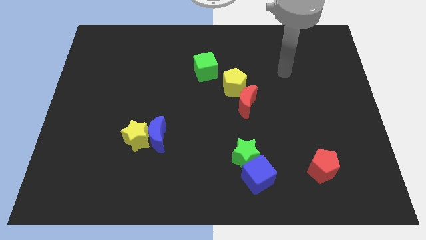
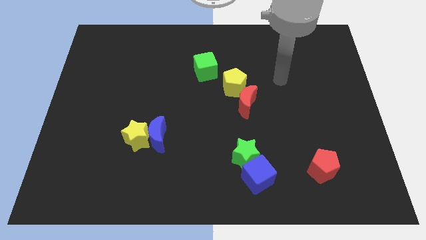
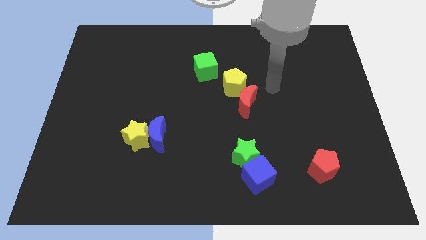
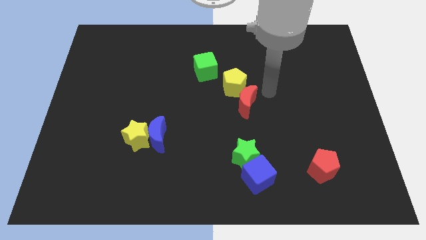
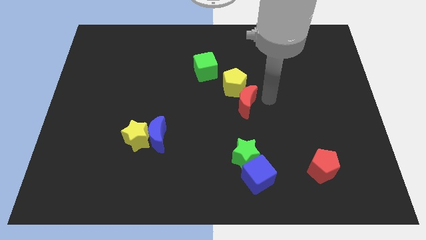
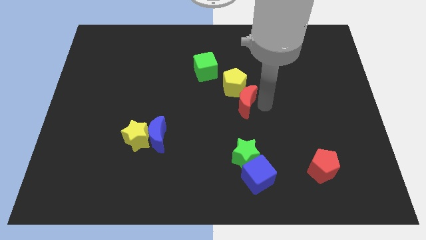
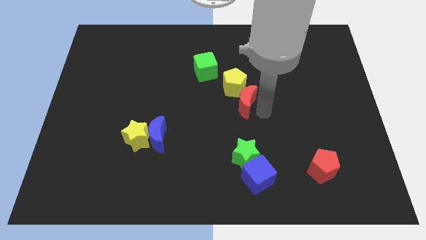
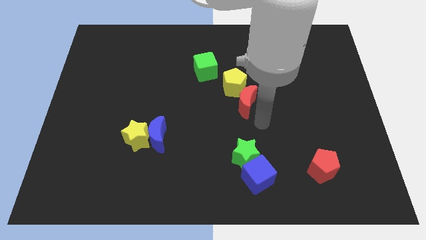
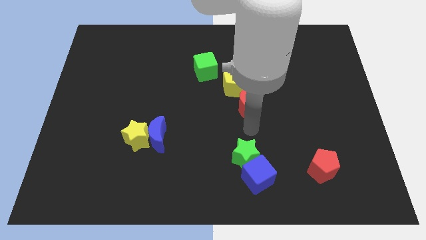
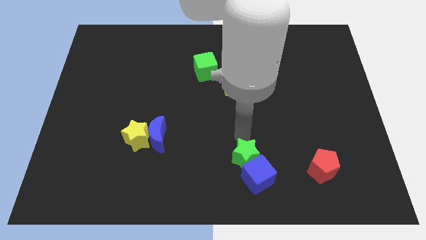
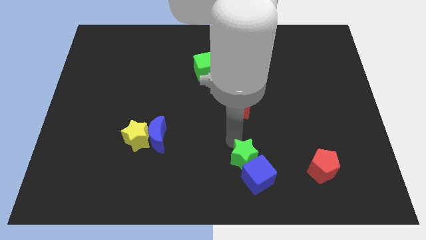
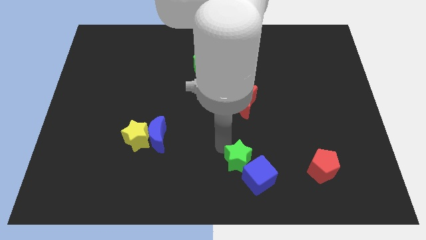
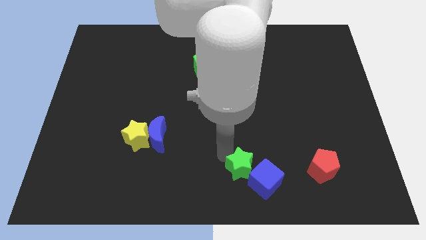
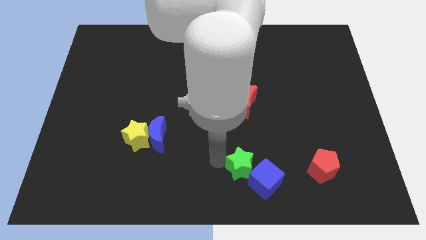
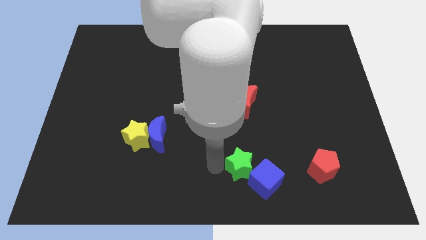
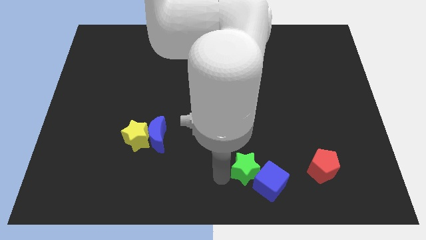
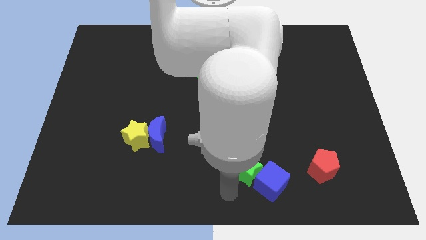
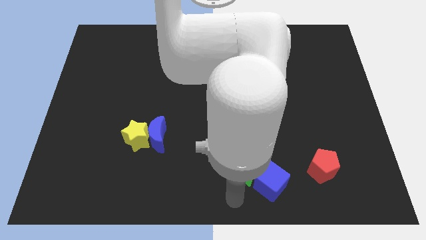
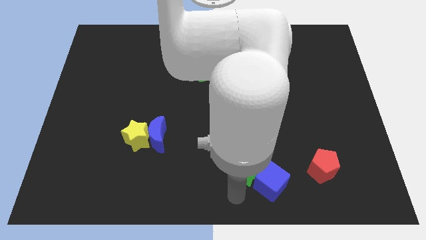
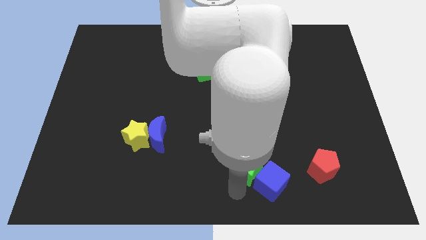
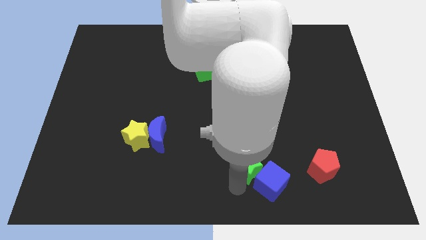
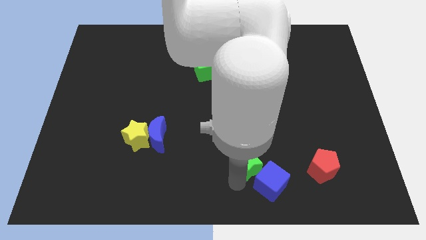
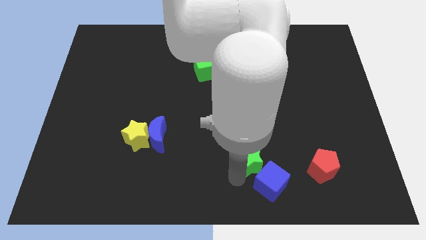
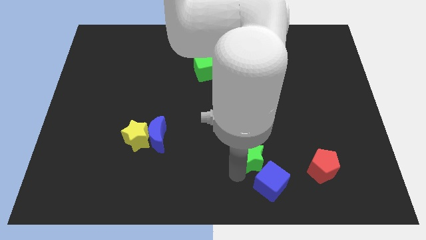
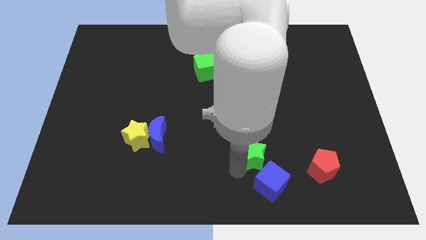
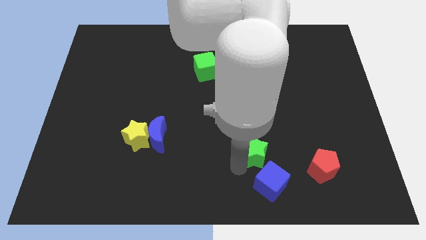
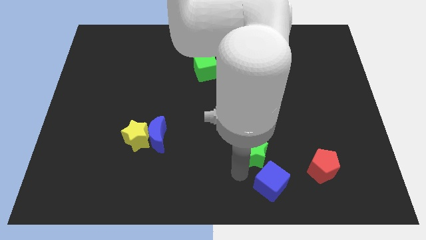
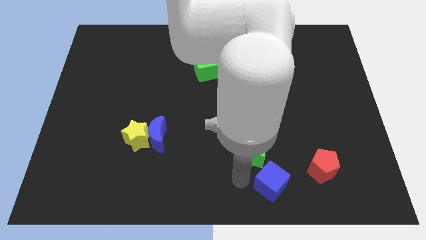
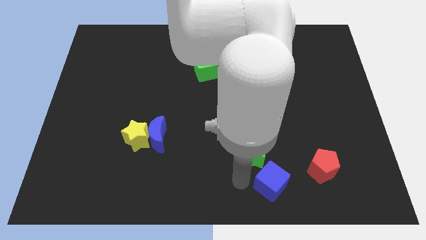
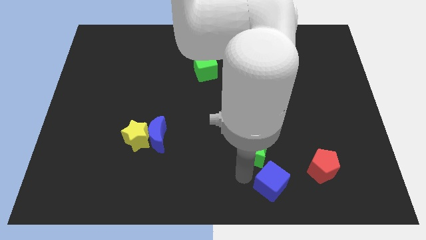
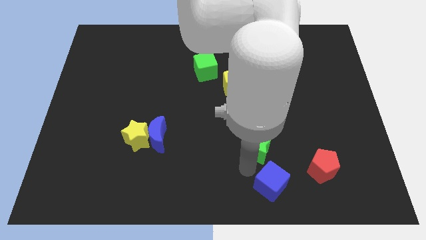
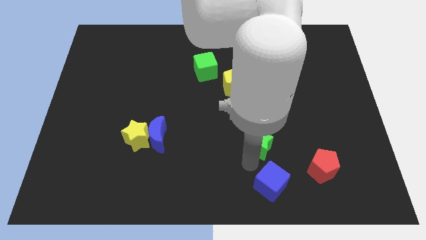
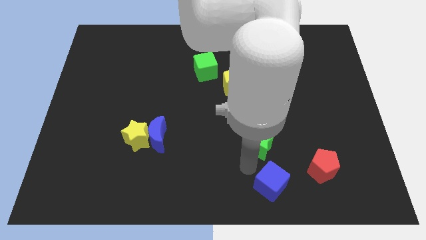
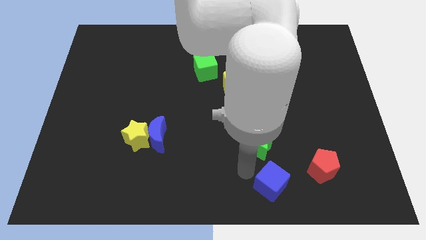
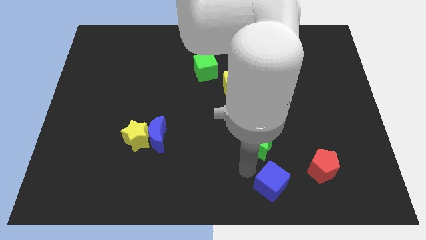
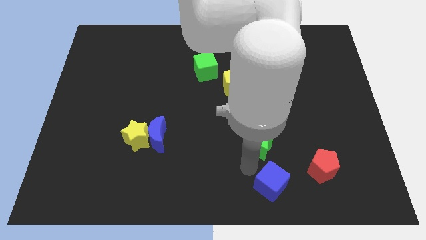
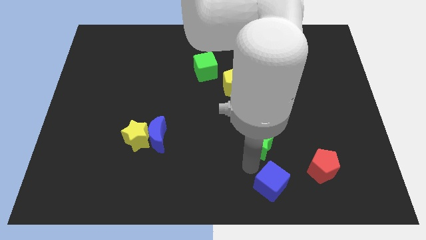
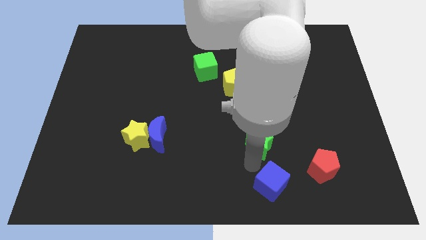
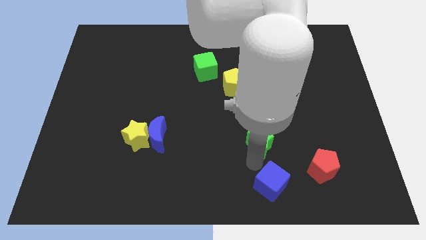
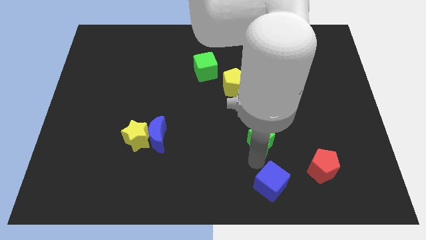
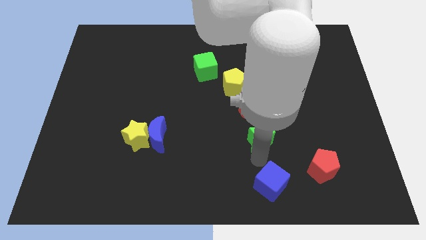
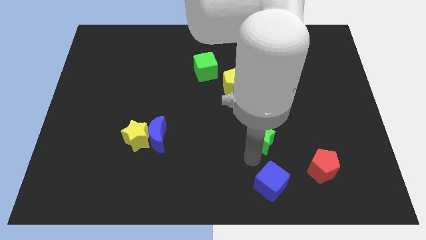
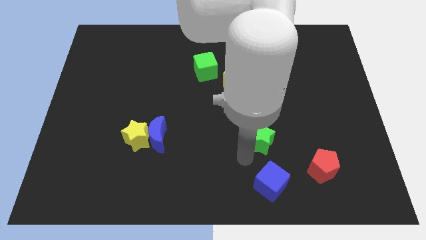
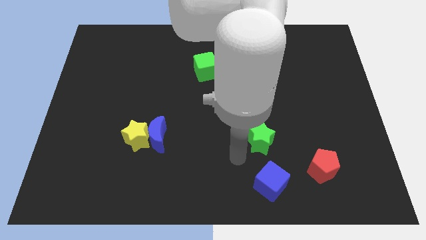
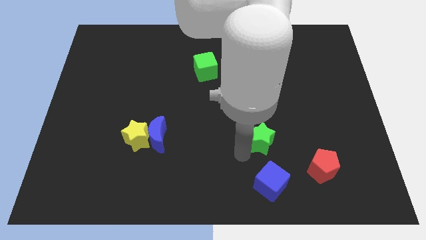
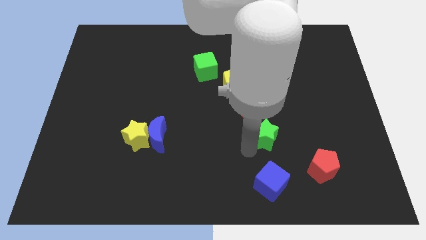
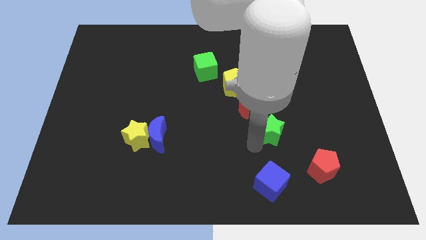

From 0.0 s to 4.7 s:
slide the green star a little upwards and then to the right

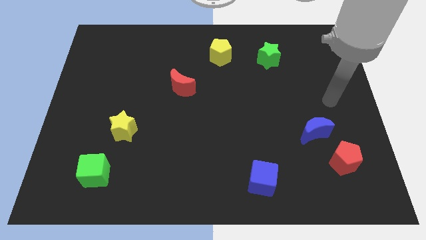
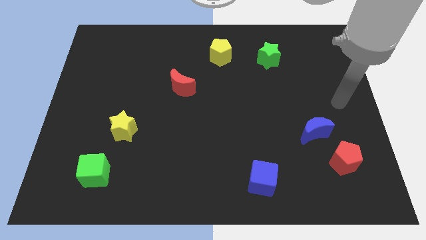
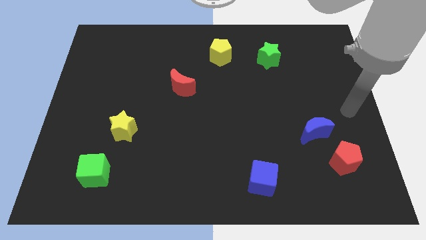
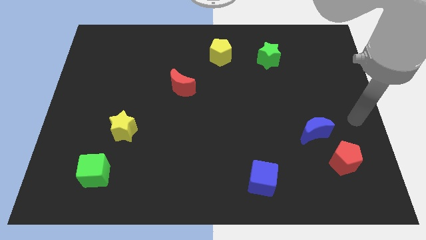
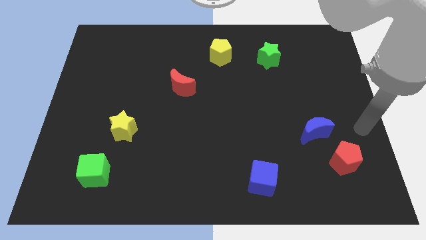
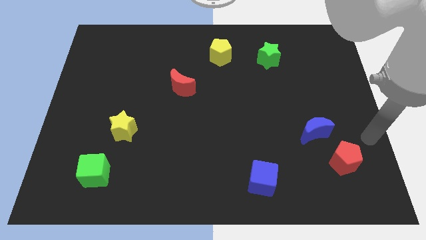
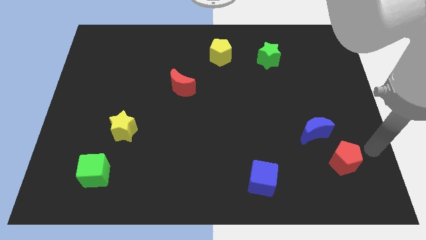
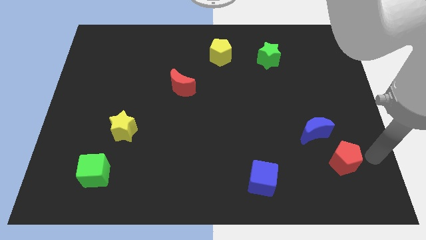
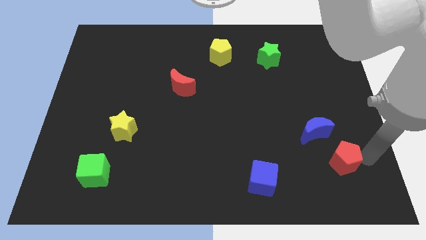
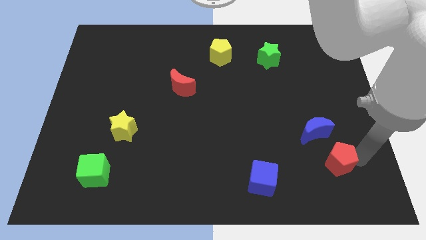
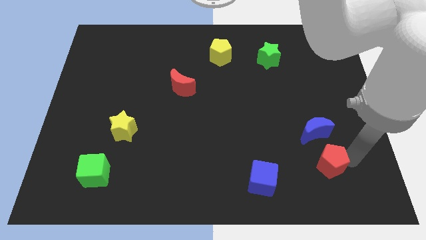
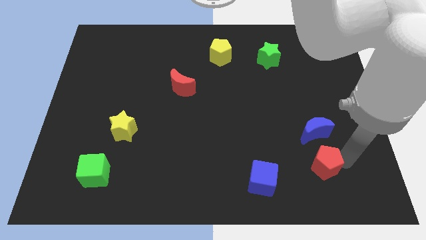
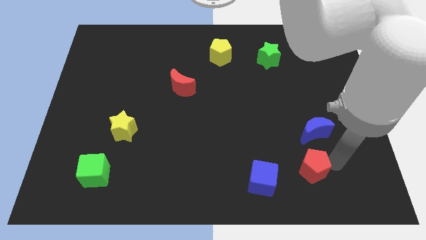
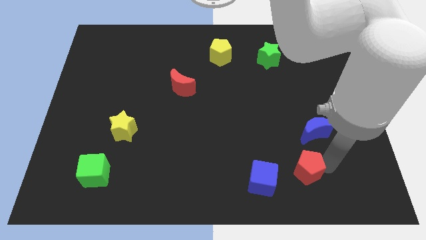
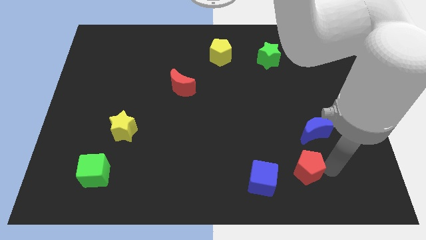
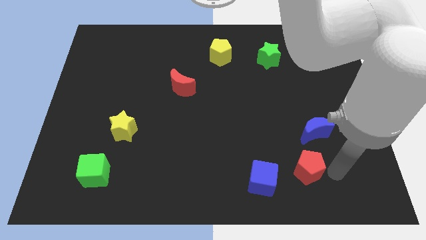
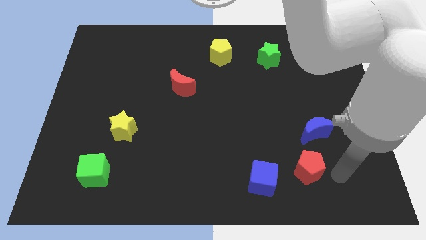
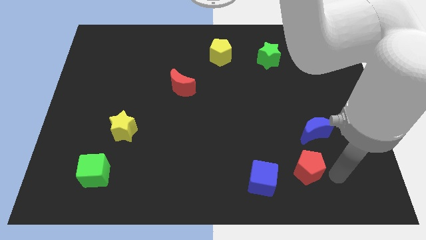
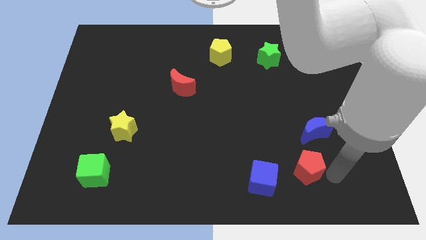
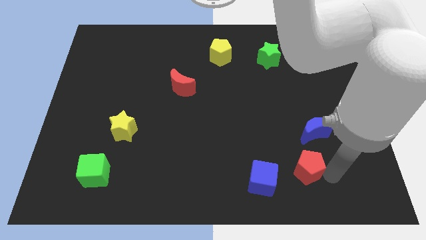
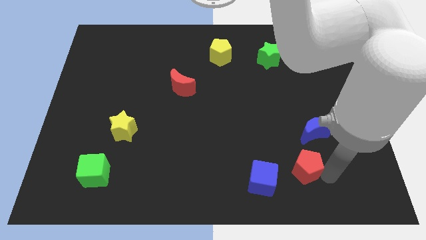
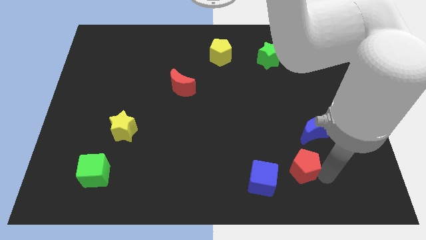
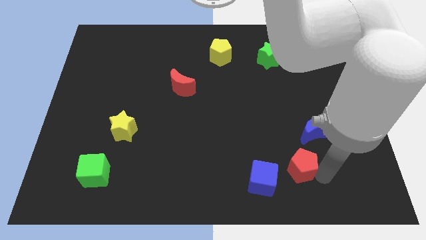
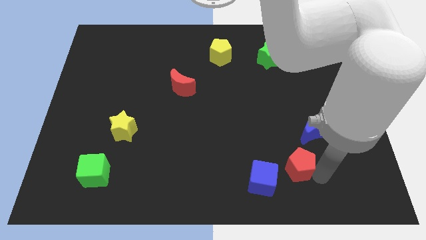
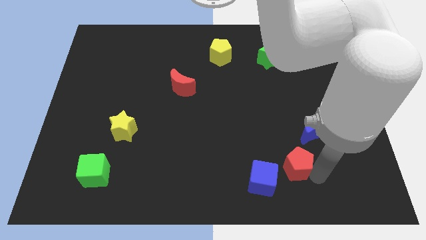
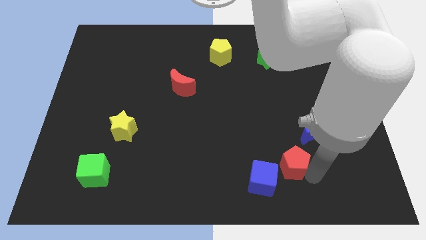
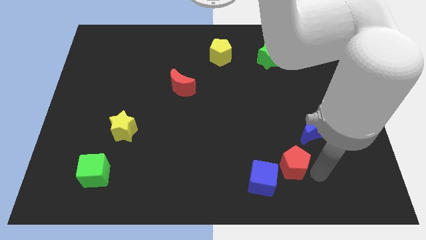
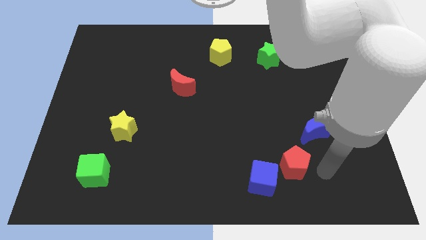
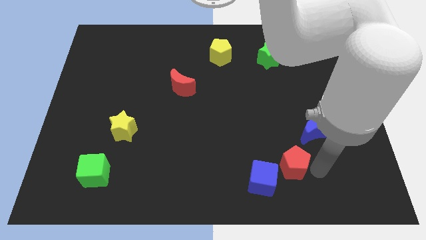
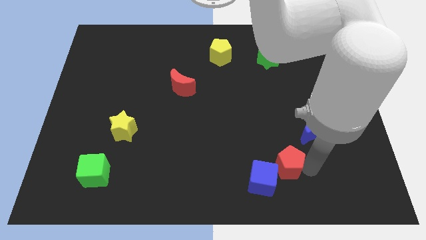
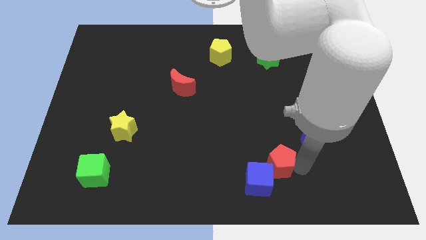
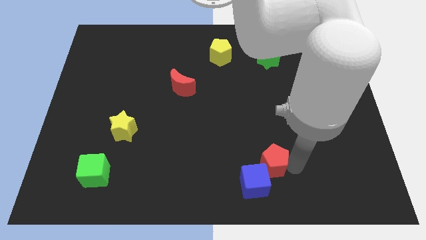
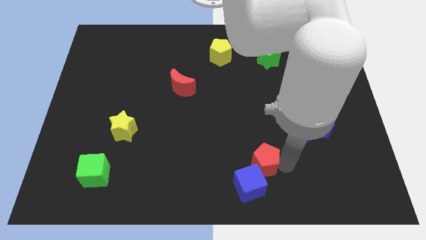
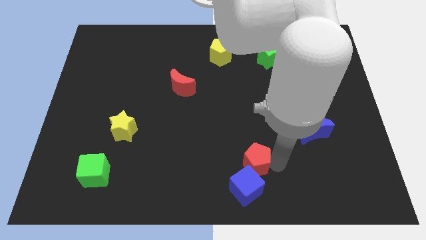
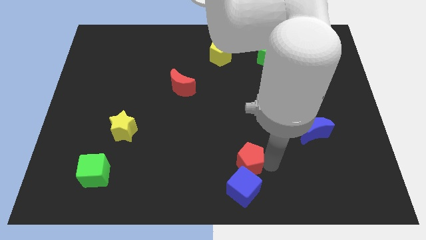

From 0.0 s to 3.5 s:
slide the red pentagon to the left
